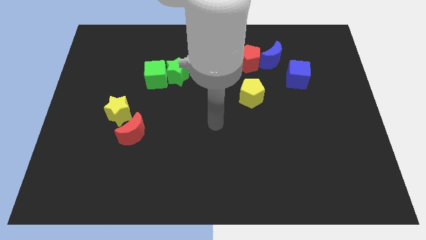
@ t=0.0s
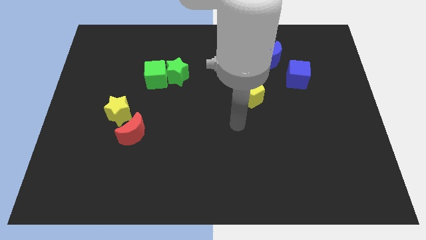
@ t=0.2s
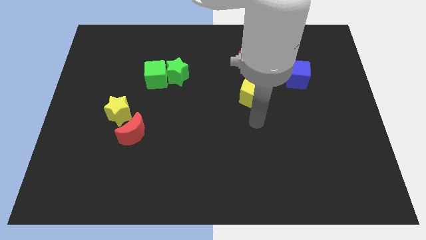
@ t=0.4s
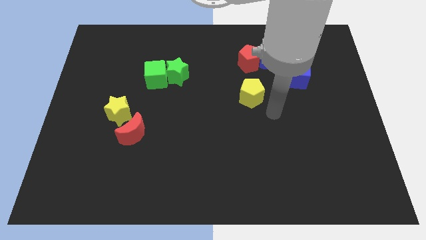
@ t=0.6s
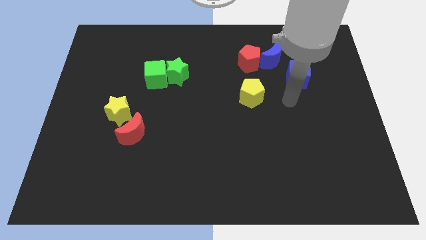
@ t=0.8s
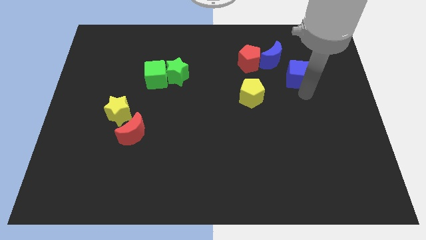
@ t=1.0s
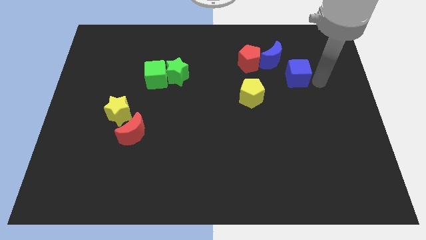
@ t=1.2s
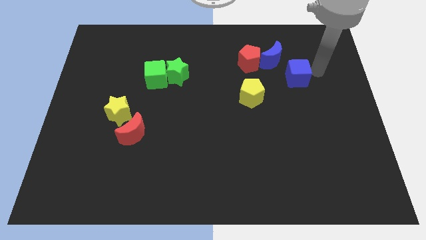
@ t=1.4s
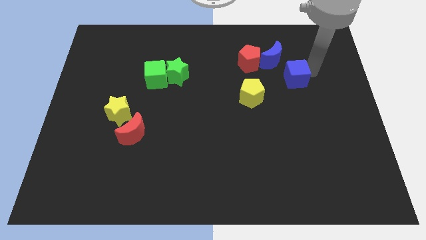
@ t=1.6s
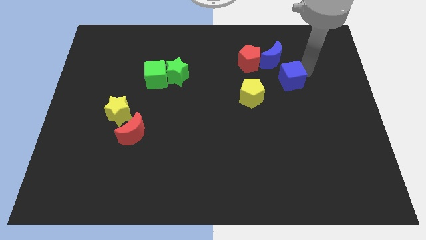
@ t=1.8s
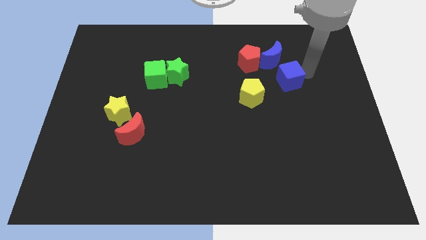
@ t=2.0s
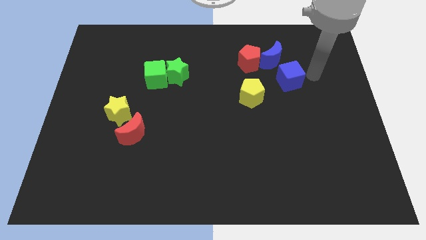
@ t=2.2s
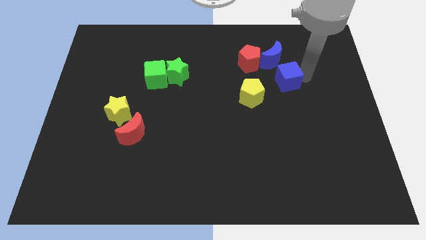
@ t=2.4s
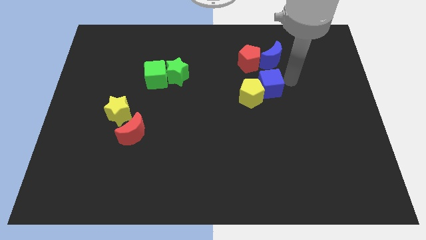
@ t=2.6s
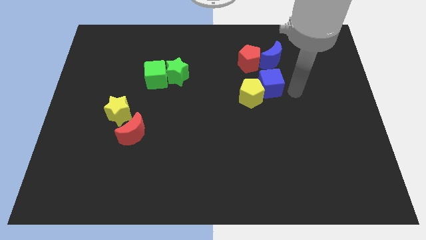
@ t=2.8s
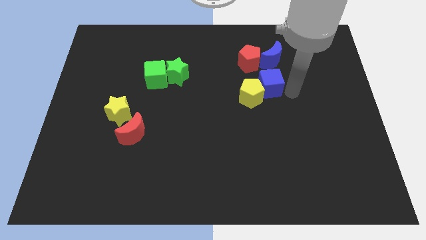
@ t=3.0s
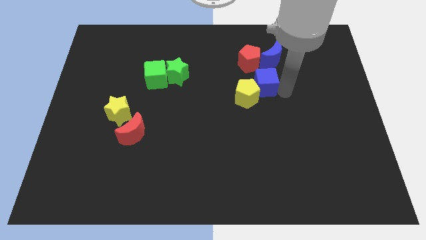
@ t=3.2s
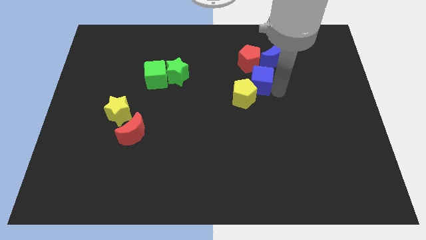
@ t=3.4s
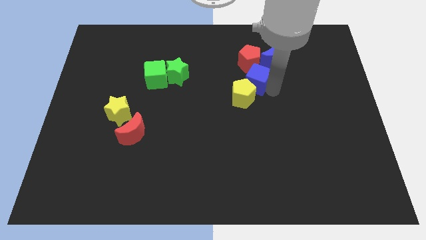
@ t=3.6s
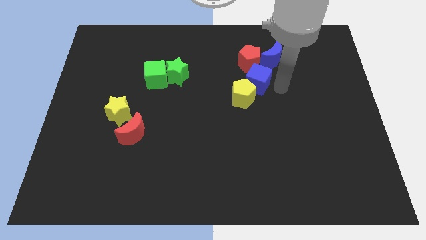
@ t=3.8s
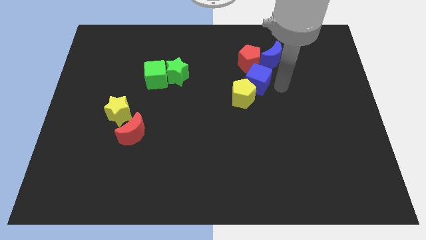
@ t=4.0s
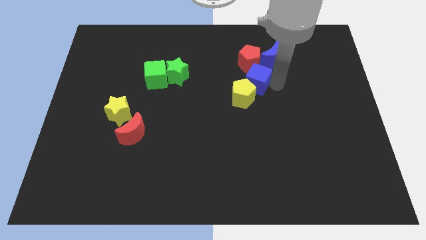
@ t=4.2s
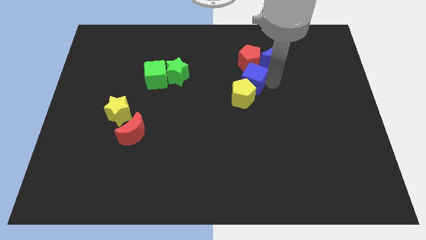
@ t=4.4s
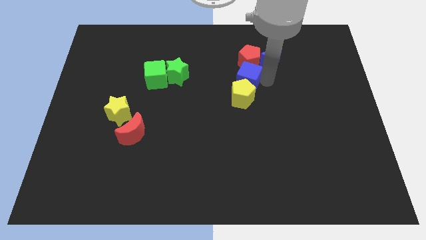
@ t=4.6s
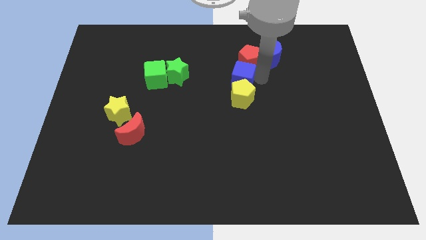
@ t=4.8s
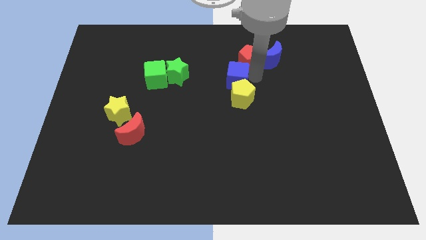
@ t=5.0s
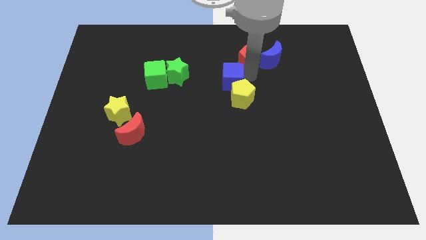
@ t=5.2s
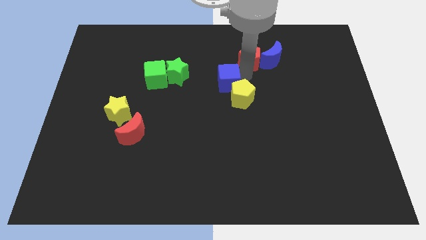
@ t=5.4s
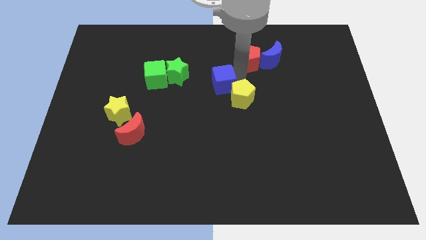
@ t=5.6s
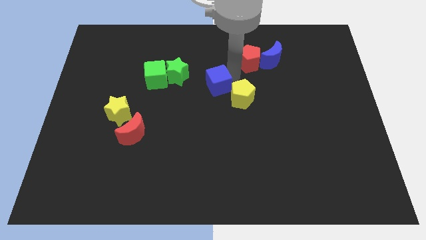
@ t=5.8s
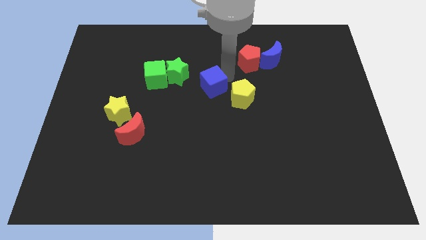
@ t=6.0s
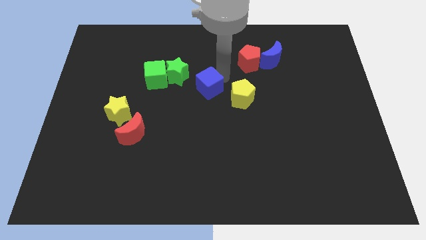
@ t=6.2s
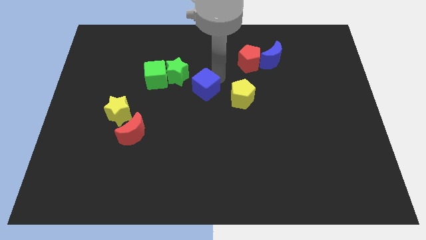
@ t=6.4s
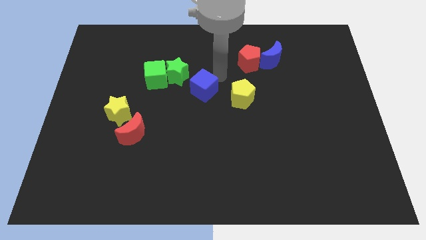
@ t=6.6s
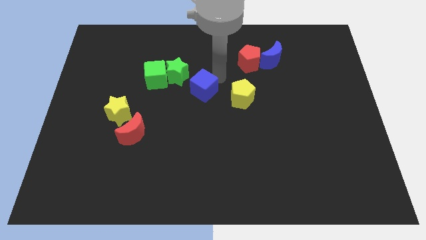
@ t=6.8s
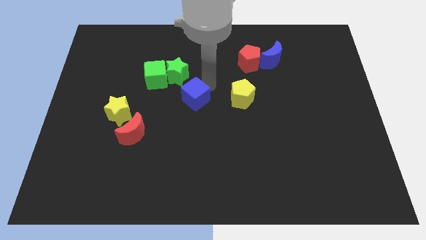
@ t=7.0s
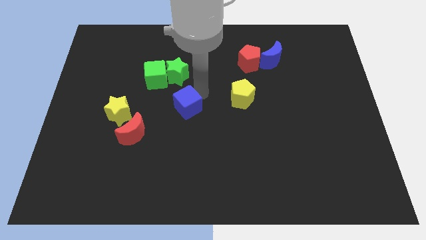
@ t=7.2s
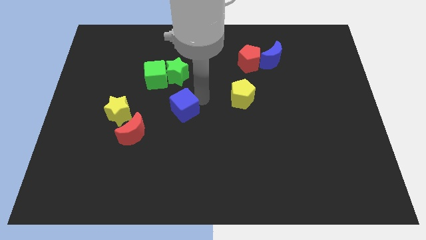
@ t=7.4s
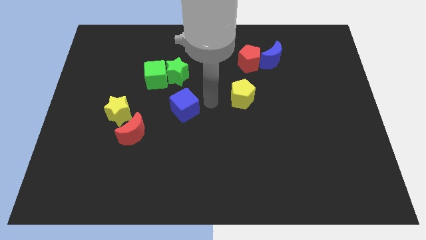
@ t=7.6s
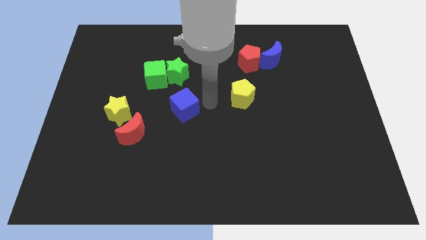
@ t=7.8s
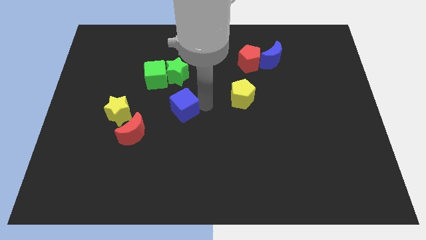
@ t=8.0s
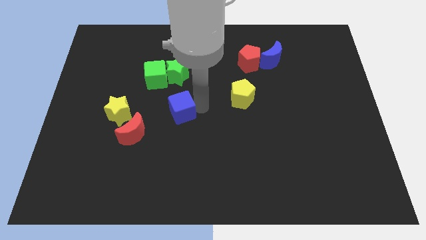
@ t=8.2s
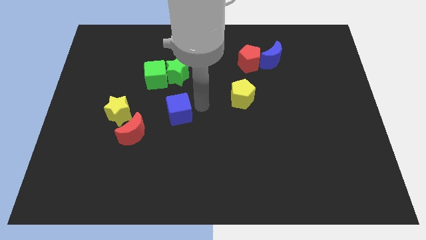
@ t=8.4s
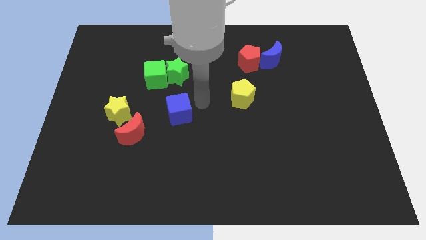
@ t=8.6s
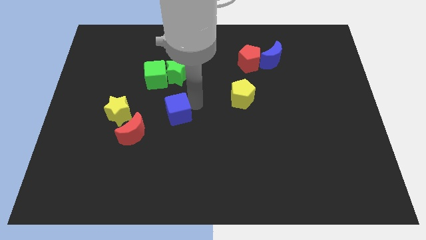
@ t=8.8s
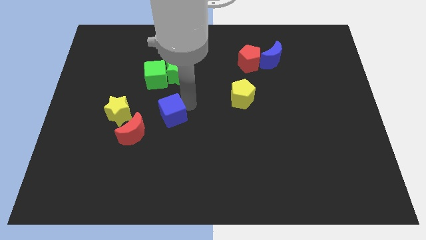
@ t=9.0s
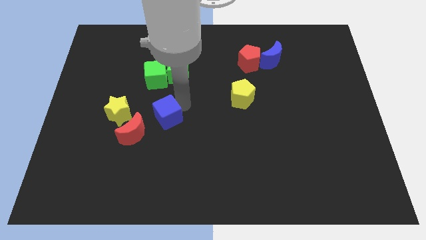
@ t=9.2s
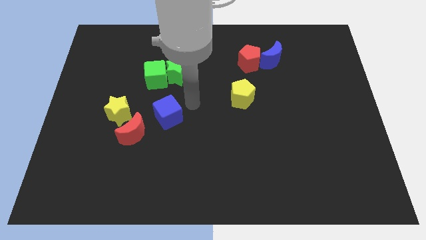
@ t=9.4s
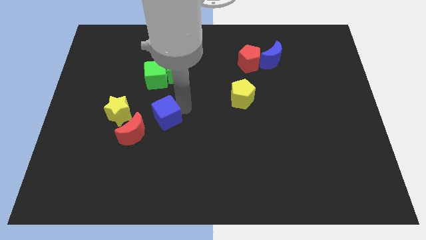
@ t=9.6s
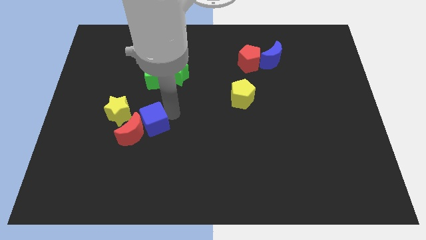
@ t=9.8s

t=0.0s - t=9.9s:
move the blue cube next to the red moon

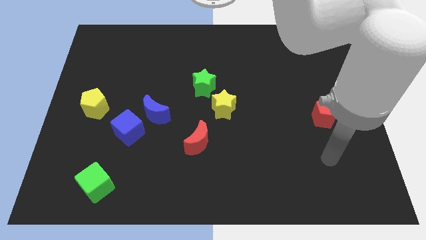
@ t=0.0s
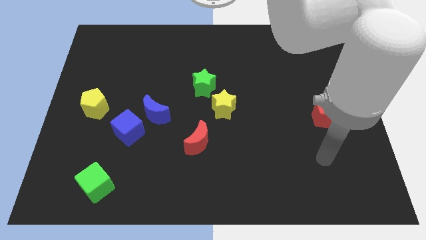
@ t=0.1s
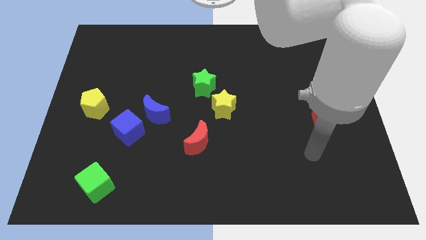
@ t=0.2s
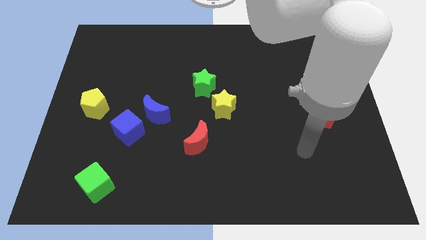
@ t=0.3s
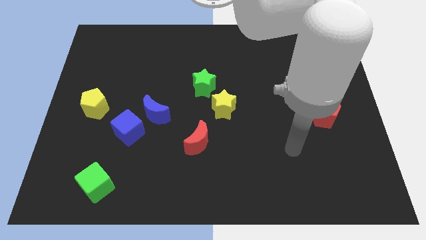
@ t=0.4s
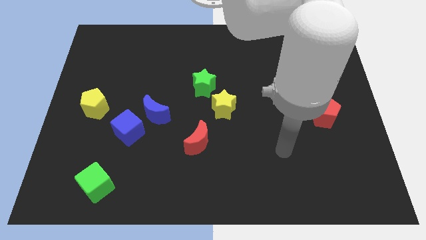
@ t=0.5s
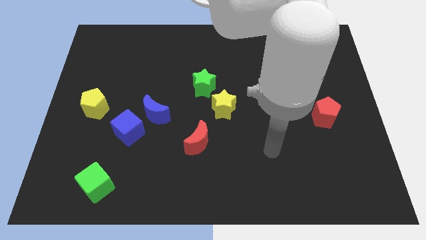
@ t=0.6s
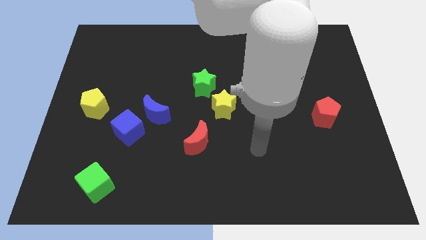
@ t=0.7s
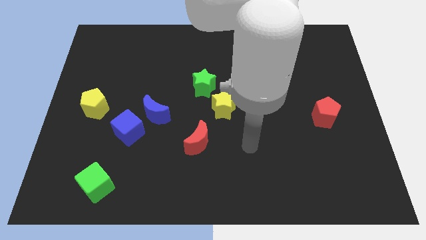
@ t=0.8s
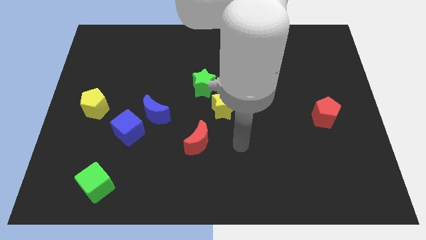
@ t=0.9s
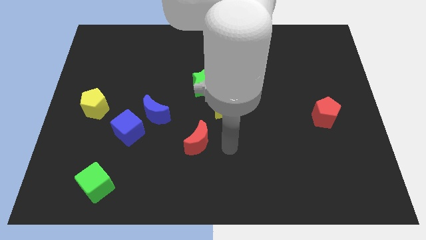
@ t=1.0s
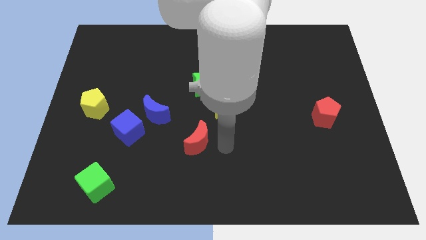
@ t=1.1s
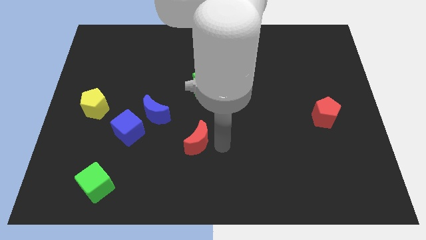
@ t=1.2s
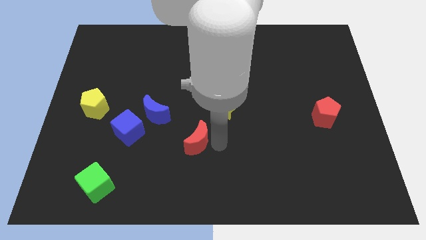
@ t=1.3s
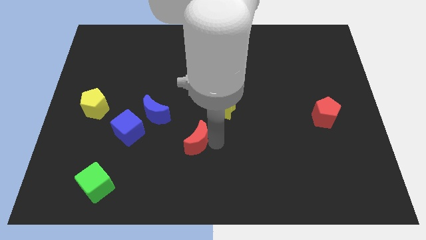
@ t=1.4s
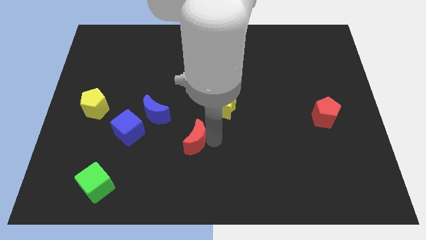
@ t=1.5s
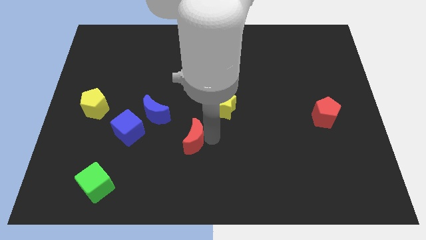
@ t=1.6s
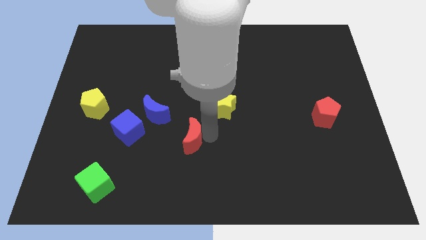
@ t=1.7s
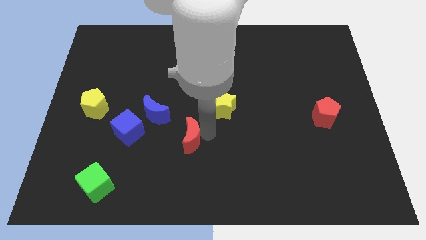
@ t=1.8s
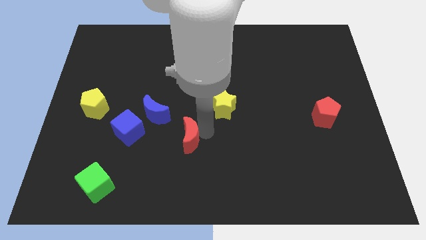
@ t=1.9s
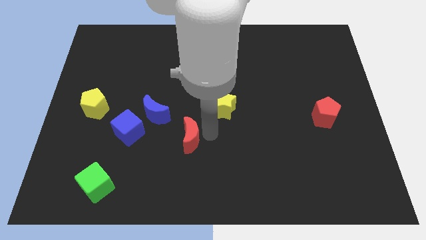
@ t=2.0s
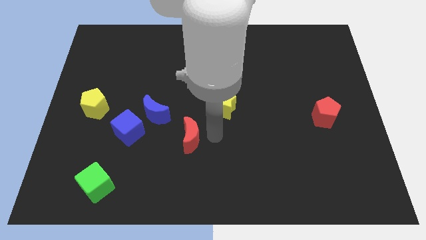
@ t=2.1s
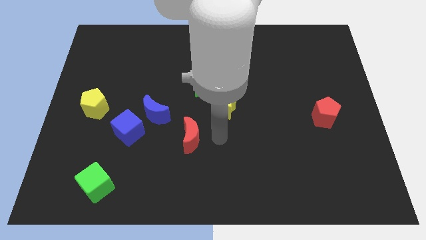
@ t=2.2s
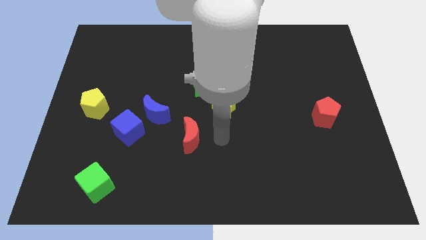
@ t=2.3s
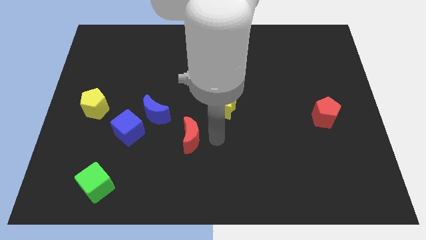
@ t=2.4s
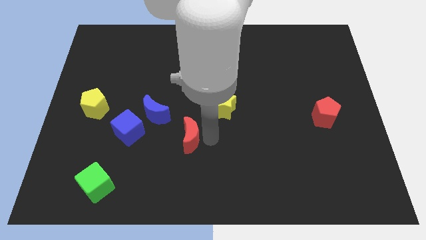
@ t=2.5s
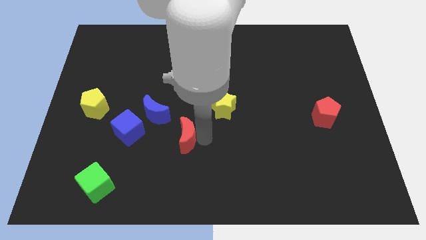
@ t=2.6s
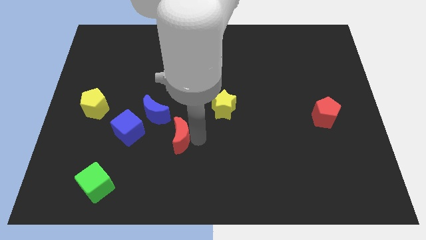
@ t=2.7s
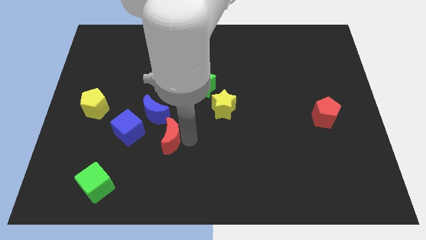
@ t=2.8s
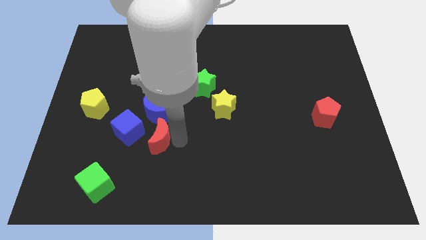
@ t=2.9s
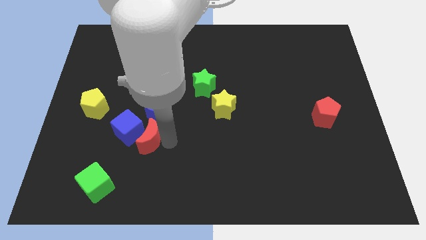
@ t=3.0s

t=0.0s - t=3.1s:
slide the red moon next to the blue cube
